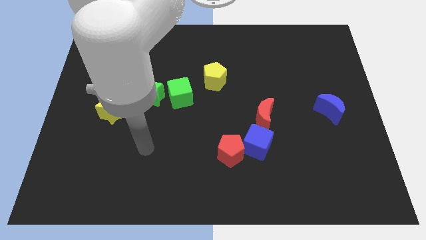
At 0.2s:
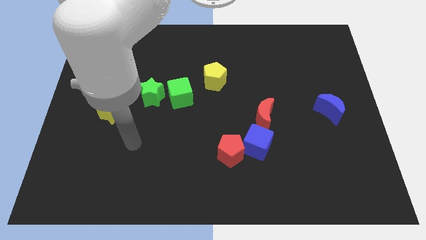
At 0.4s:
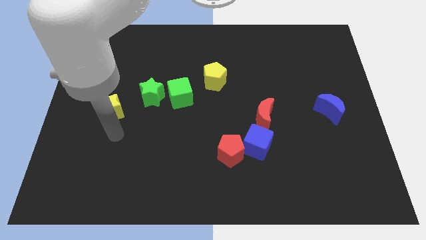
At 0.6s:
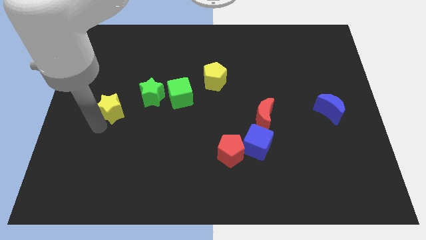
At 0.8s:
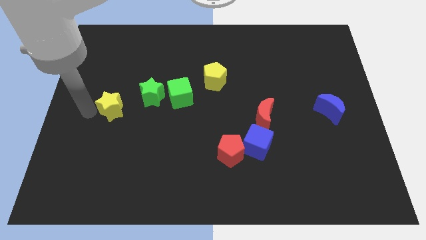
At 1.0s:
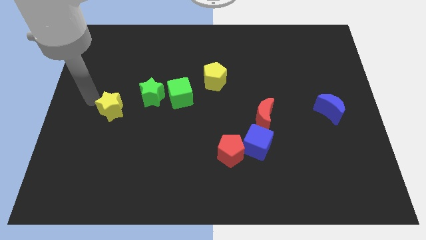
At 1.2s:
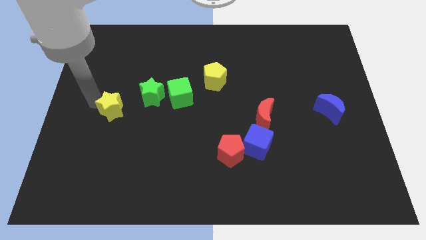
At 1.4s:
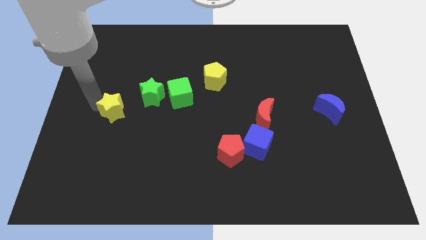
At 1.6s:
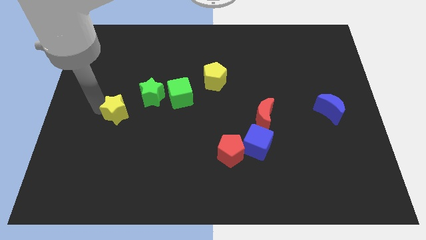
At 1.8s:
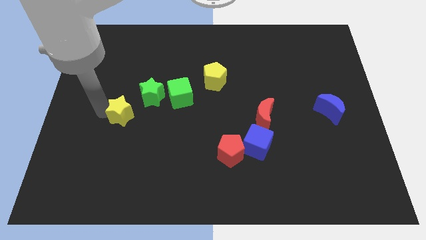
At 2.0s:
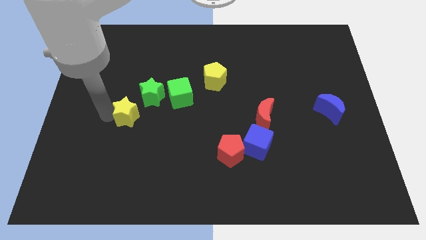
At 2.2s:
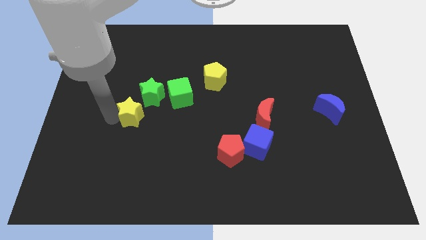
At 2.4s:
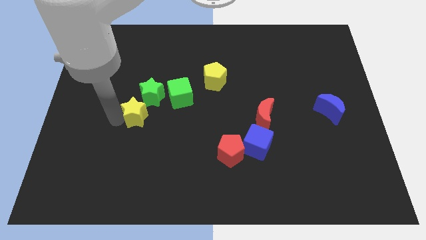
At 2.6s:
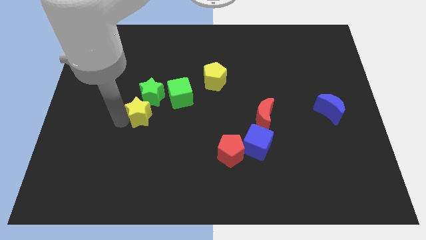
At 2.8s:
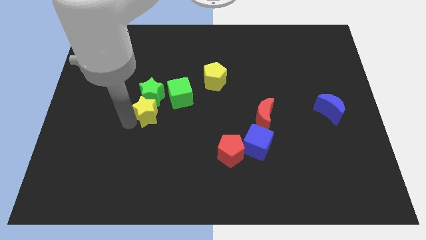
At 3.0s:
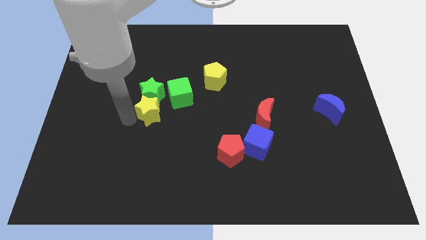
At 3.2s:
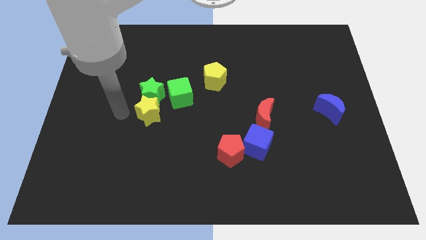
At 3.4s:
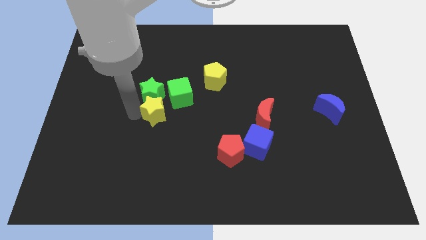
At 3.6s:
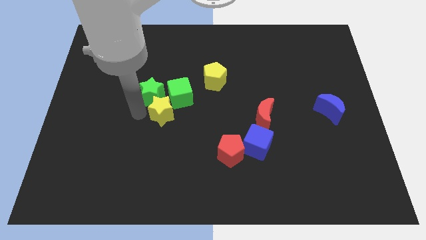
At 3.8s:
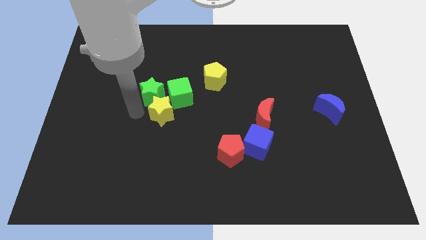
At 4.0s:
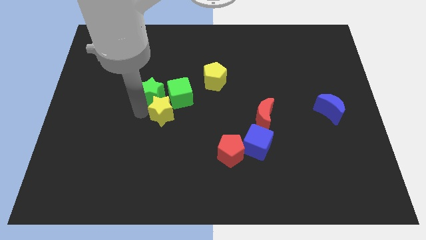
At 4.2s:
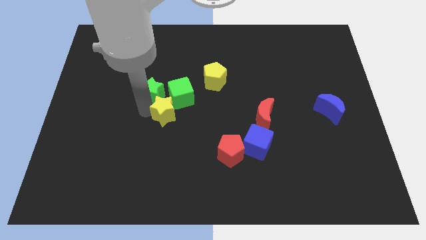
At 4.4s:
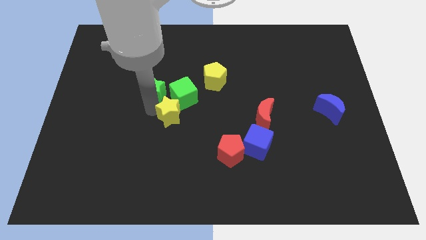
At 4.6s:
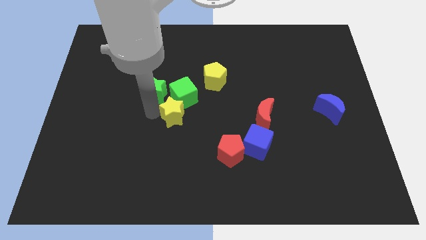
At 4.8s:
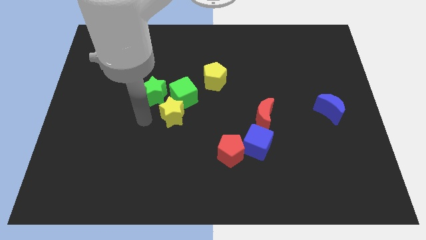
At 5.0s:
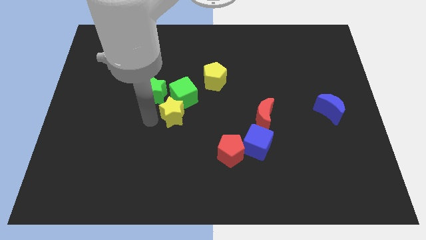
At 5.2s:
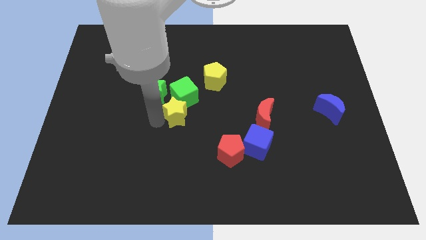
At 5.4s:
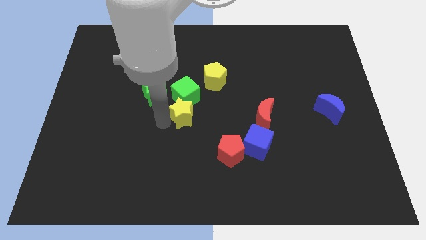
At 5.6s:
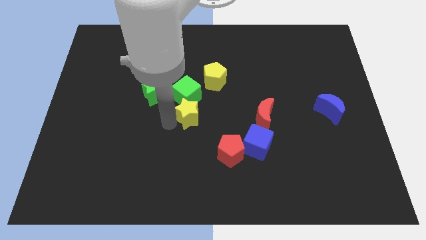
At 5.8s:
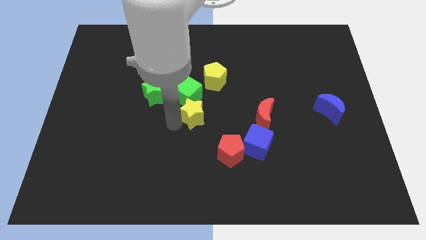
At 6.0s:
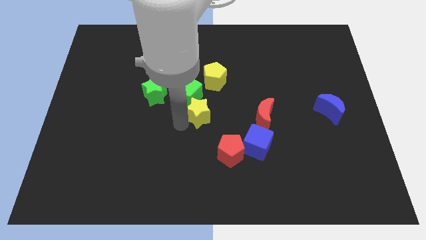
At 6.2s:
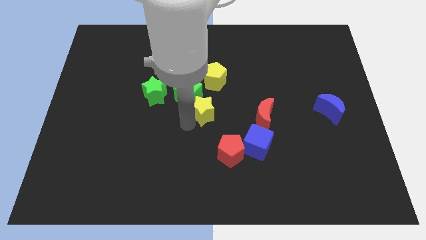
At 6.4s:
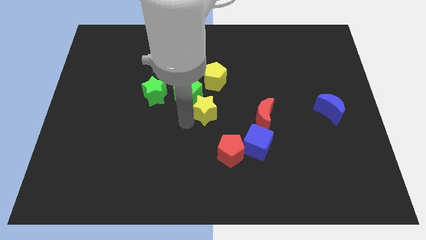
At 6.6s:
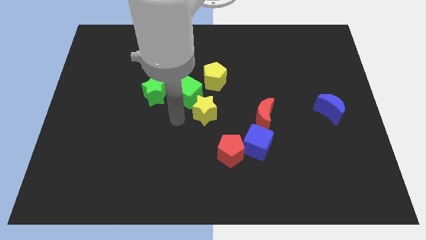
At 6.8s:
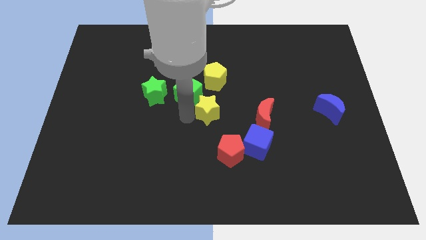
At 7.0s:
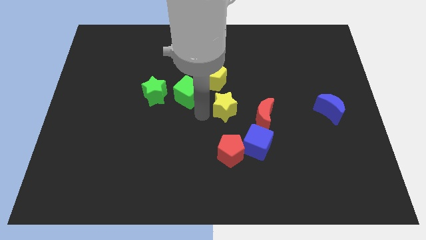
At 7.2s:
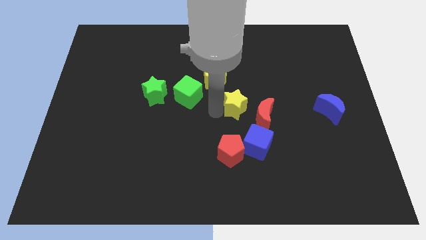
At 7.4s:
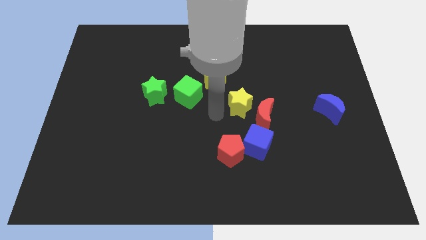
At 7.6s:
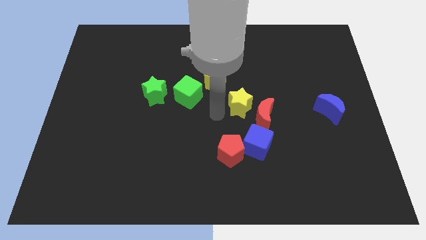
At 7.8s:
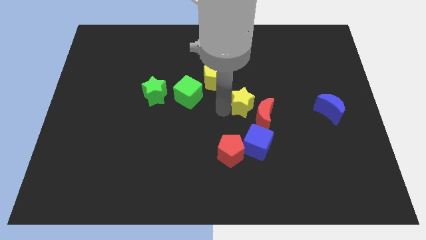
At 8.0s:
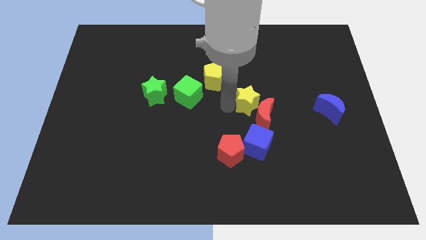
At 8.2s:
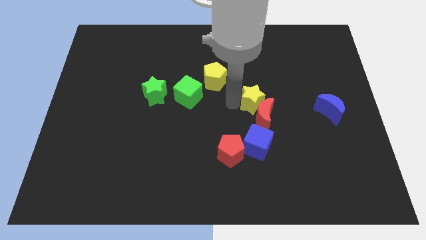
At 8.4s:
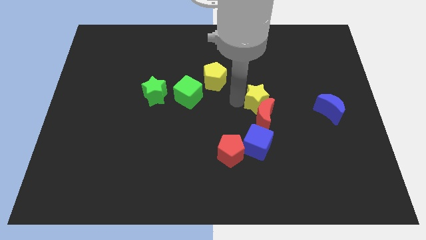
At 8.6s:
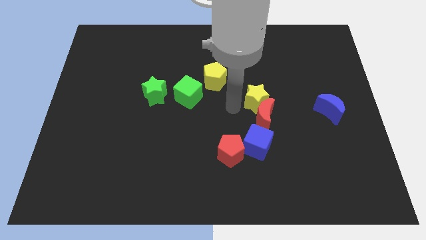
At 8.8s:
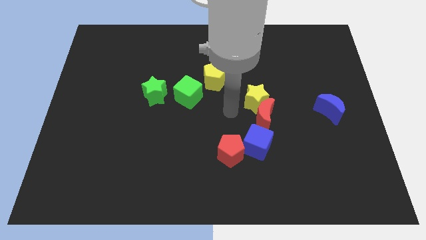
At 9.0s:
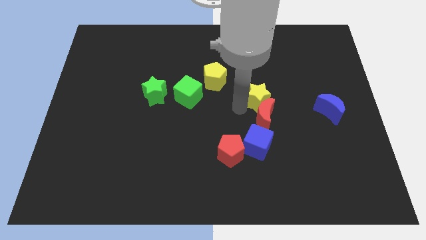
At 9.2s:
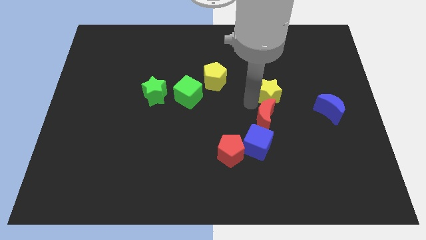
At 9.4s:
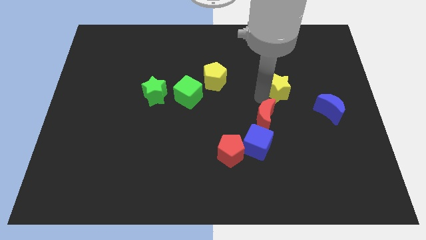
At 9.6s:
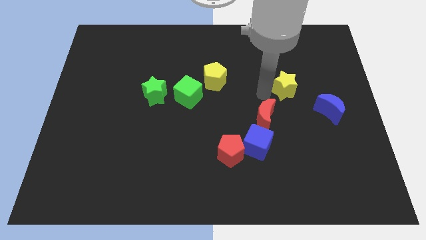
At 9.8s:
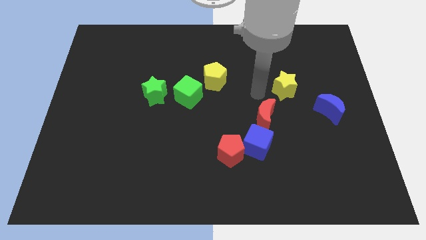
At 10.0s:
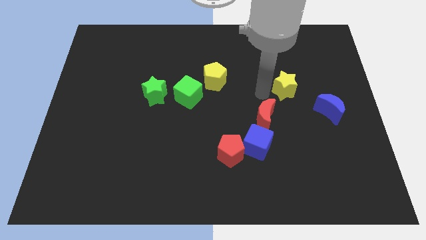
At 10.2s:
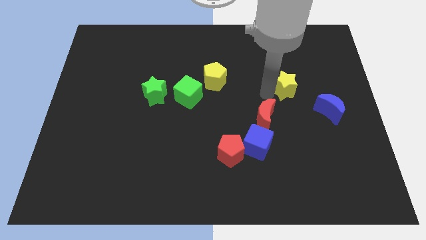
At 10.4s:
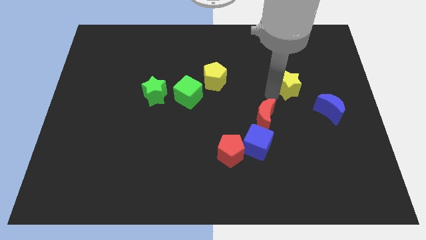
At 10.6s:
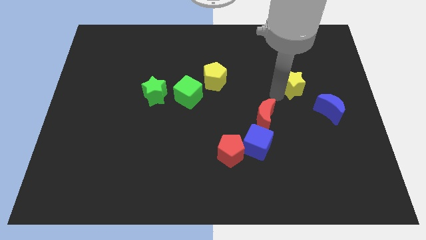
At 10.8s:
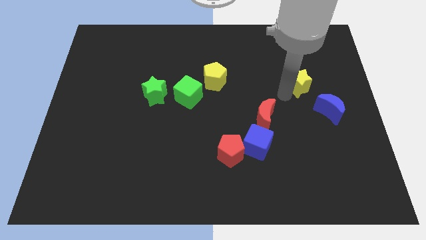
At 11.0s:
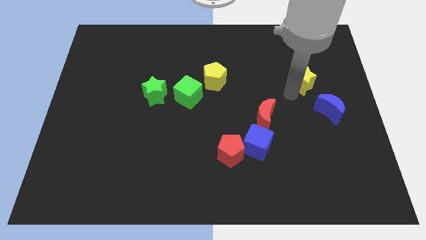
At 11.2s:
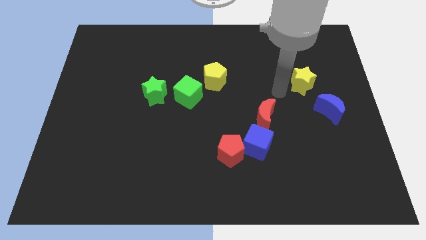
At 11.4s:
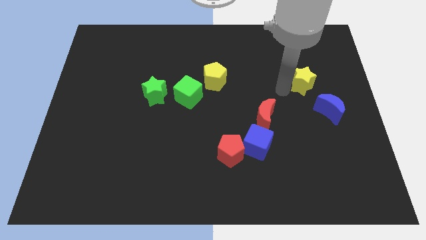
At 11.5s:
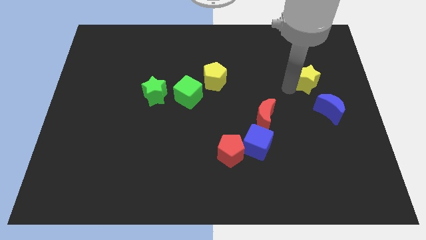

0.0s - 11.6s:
put the yellow star to the top side of the blue moon
